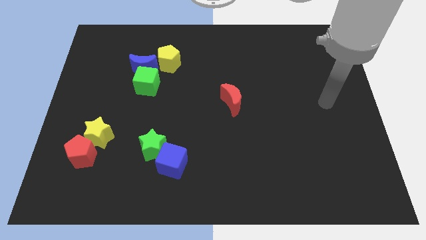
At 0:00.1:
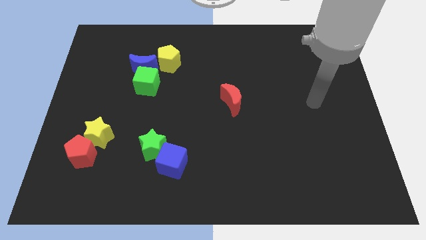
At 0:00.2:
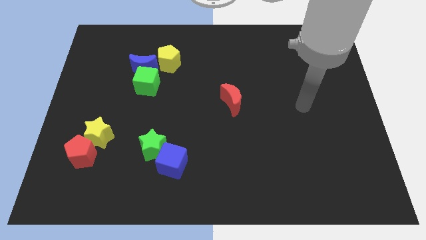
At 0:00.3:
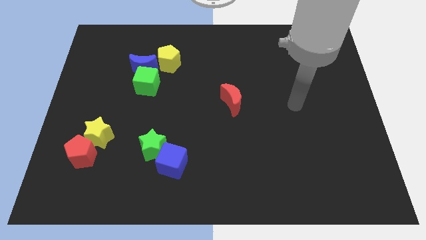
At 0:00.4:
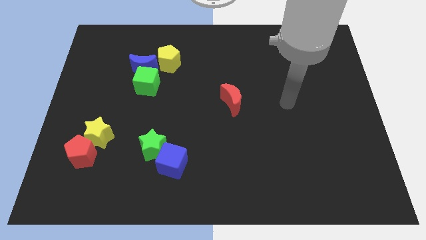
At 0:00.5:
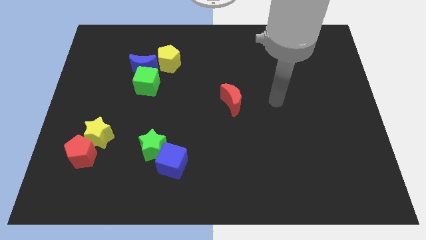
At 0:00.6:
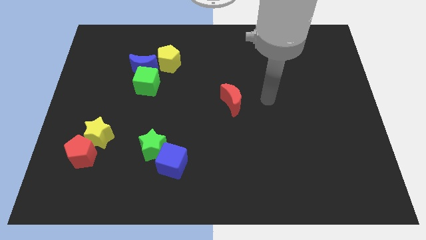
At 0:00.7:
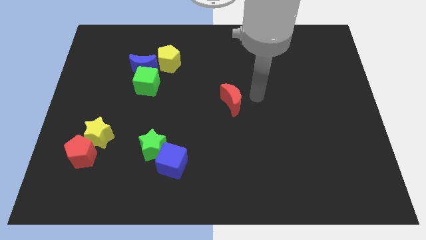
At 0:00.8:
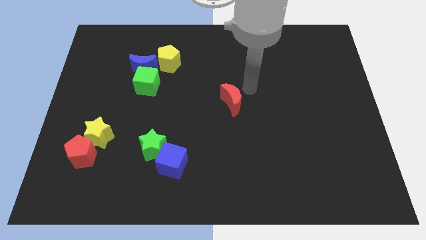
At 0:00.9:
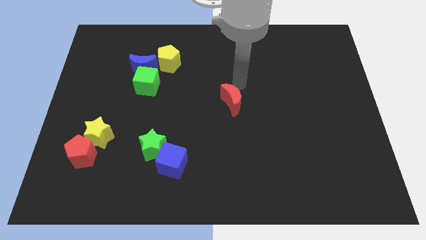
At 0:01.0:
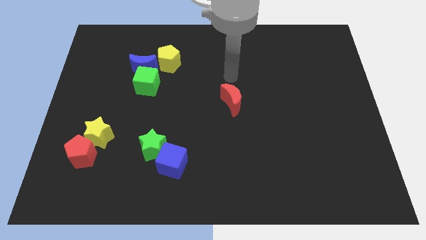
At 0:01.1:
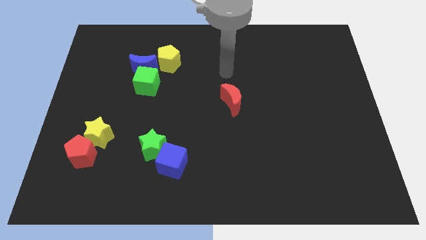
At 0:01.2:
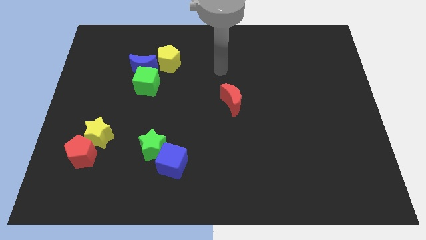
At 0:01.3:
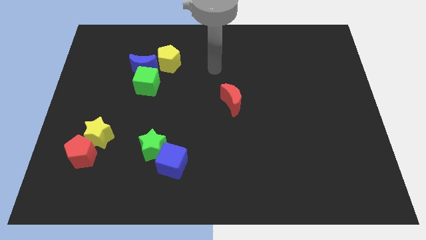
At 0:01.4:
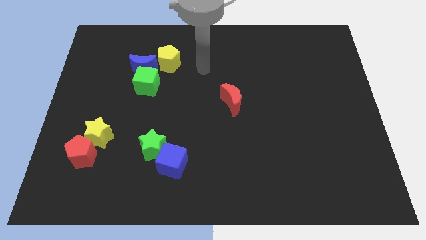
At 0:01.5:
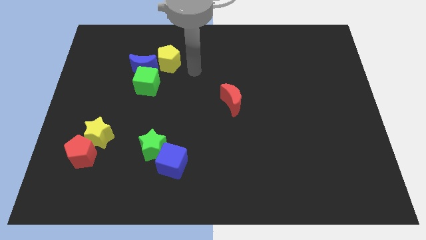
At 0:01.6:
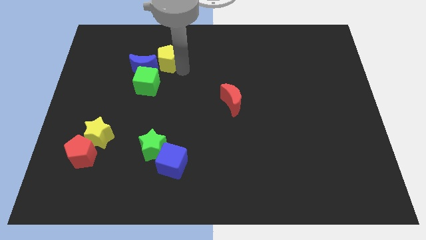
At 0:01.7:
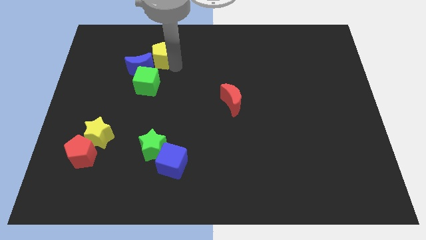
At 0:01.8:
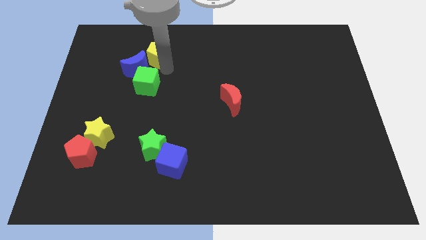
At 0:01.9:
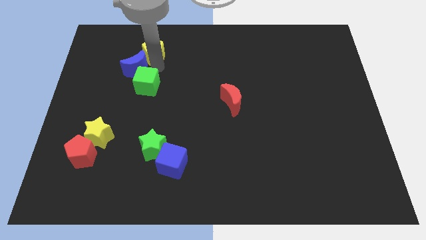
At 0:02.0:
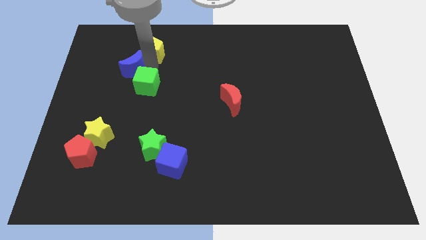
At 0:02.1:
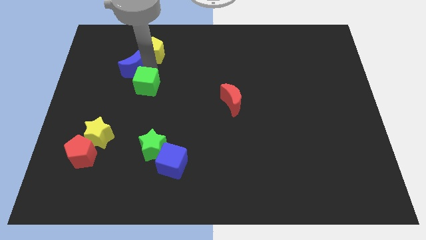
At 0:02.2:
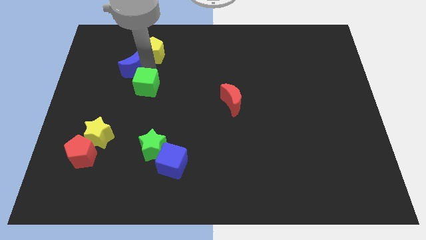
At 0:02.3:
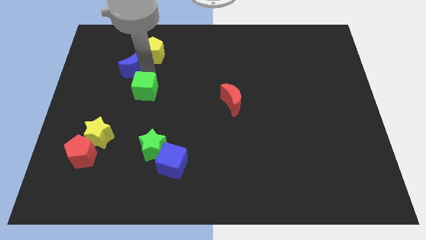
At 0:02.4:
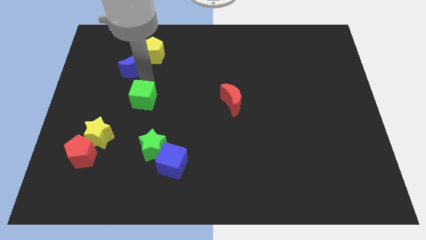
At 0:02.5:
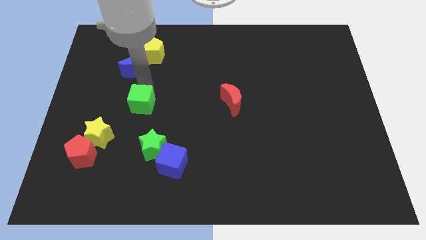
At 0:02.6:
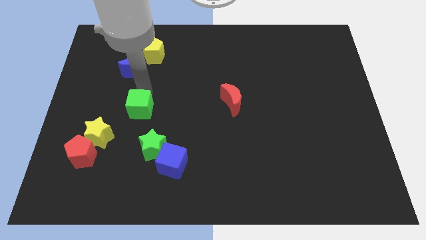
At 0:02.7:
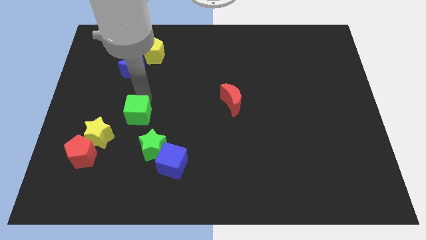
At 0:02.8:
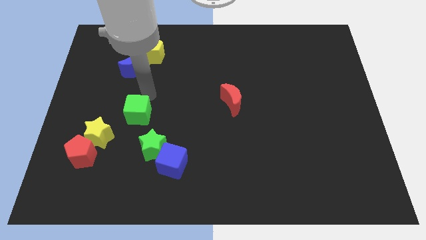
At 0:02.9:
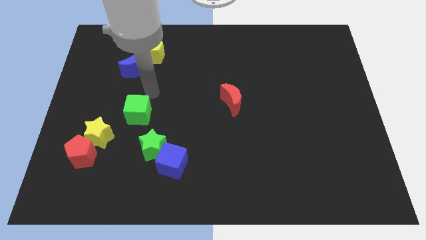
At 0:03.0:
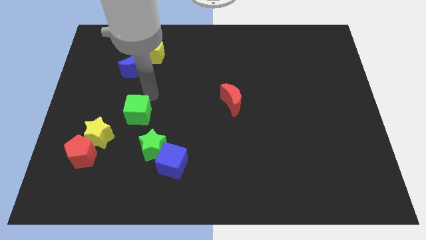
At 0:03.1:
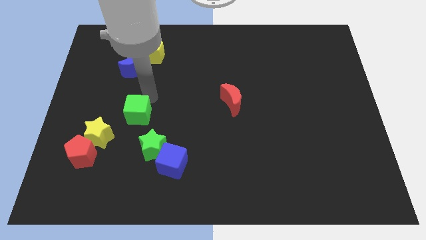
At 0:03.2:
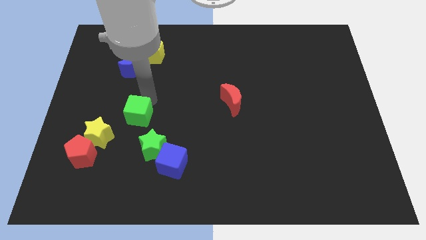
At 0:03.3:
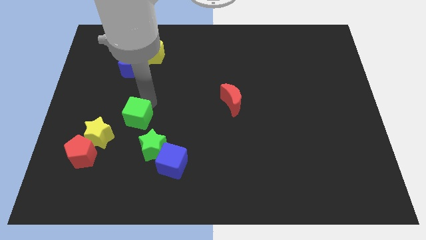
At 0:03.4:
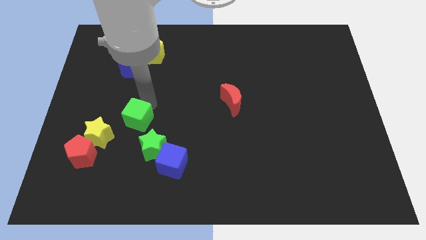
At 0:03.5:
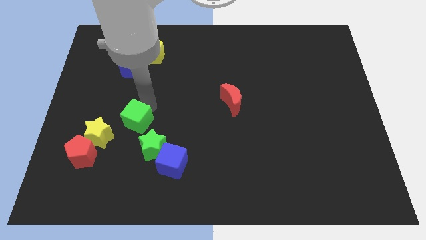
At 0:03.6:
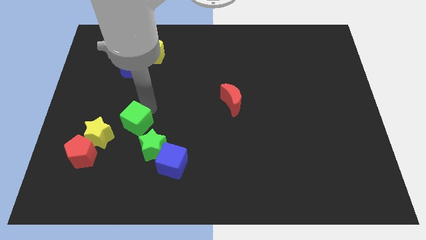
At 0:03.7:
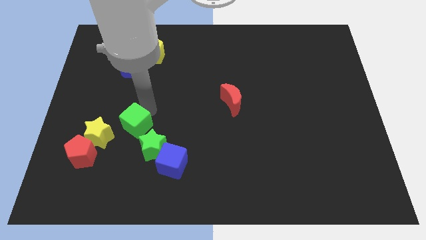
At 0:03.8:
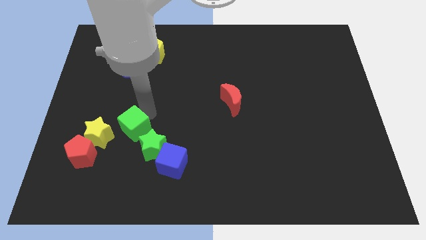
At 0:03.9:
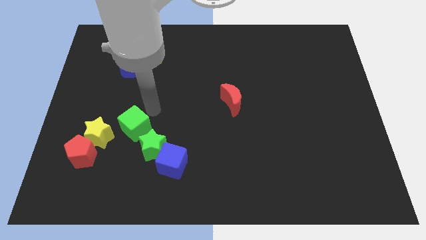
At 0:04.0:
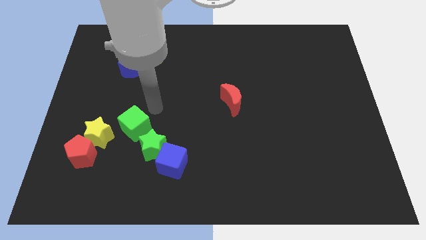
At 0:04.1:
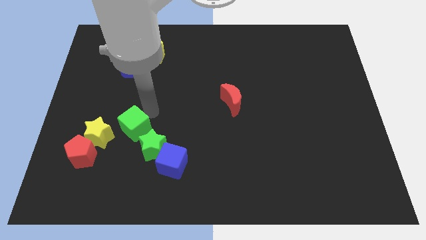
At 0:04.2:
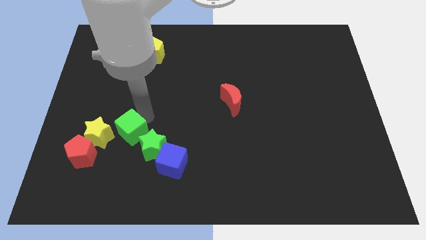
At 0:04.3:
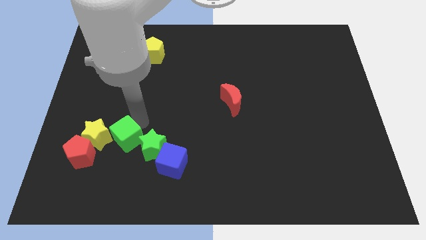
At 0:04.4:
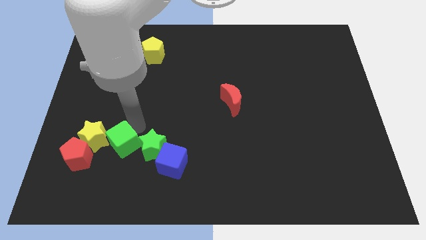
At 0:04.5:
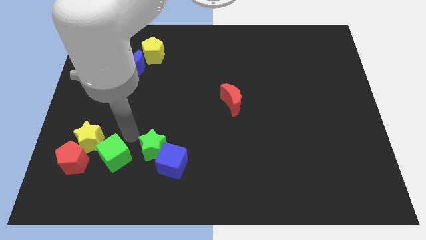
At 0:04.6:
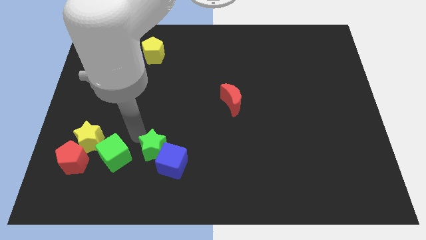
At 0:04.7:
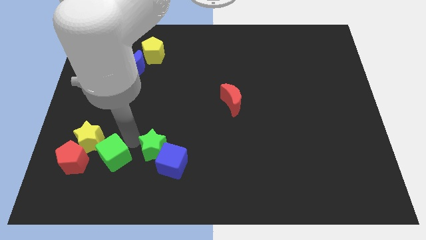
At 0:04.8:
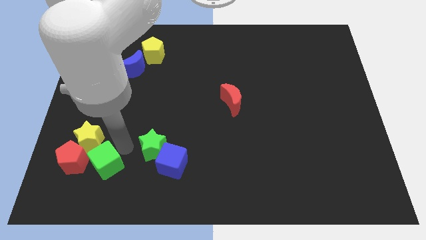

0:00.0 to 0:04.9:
move the green cube to the bottom side of the yellow star

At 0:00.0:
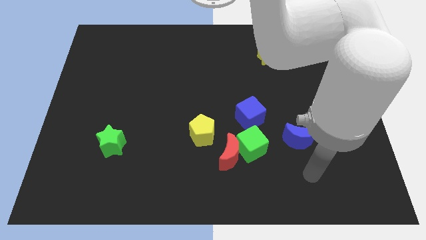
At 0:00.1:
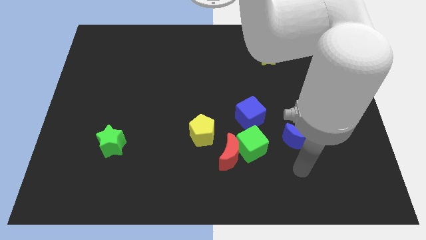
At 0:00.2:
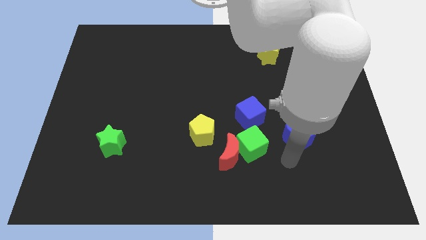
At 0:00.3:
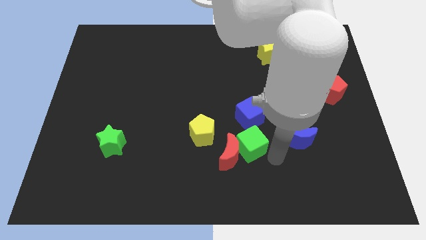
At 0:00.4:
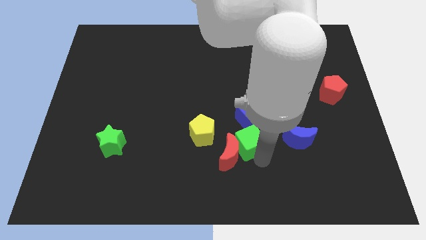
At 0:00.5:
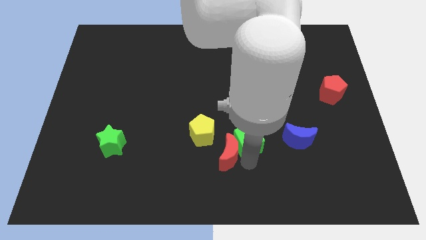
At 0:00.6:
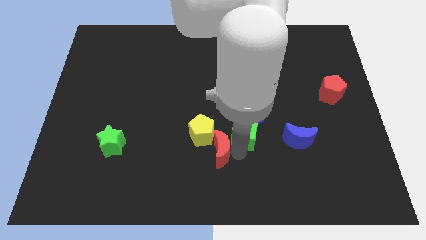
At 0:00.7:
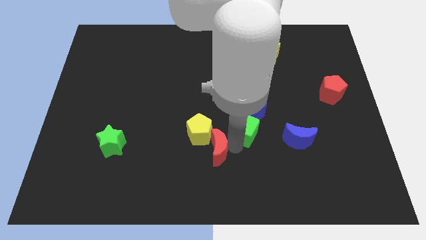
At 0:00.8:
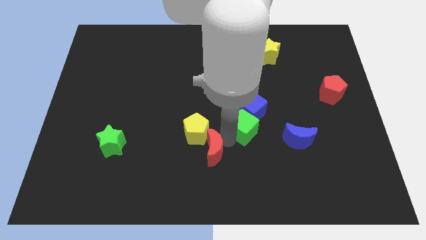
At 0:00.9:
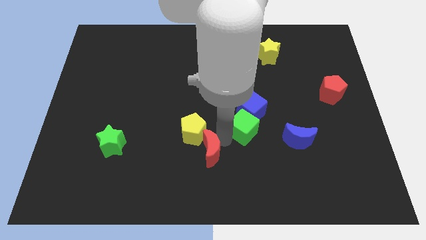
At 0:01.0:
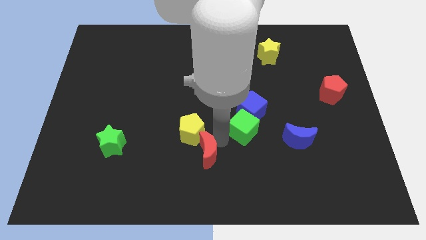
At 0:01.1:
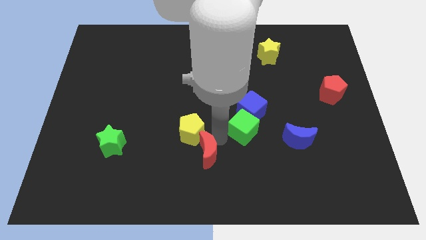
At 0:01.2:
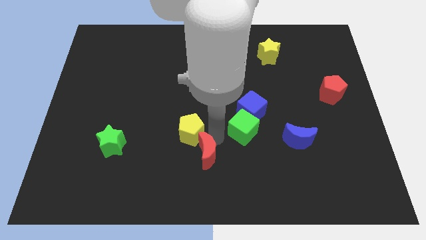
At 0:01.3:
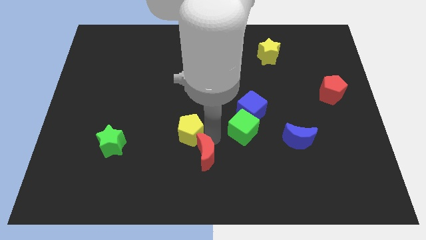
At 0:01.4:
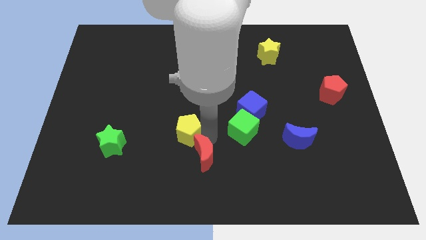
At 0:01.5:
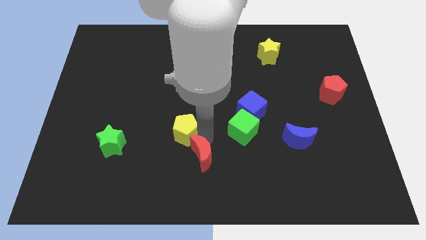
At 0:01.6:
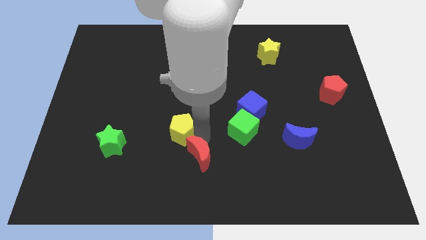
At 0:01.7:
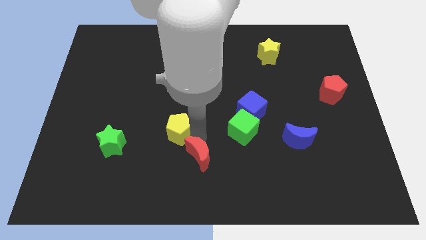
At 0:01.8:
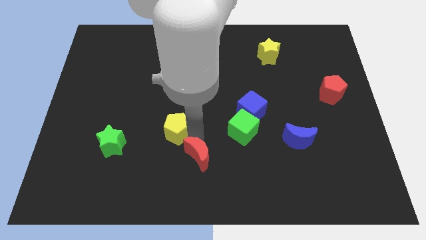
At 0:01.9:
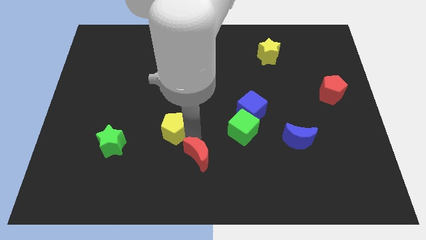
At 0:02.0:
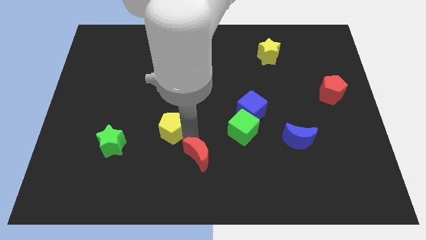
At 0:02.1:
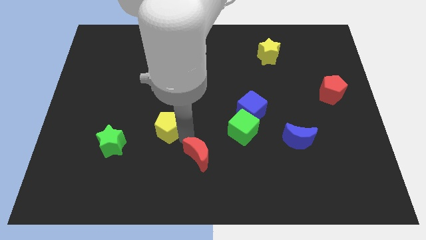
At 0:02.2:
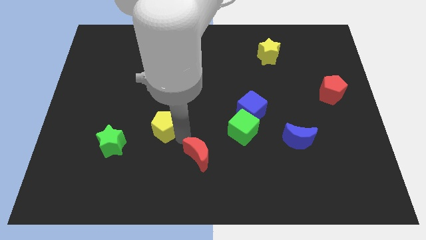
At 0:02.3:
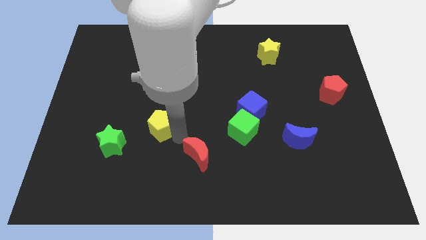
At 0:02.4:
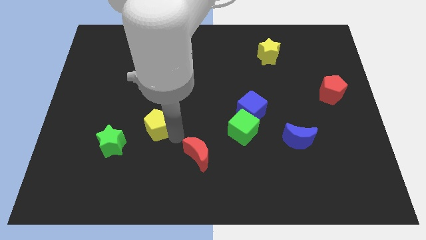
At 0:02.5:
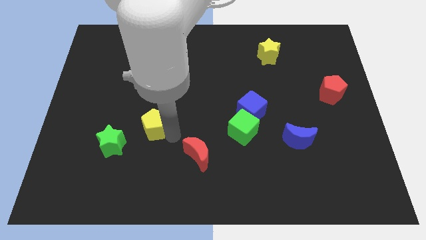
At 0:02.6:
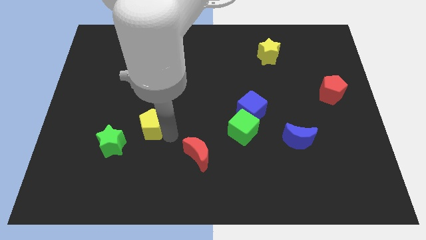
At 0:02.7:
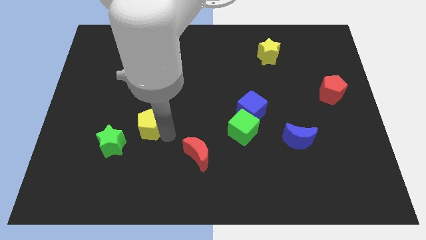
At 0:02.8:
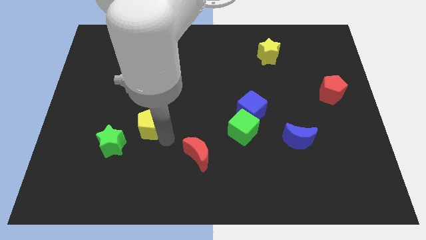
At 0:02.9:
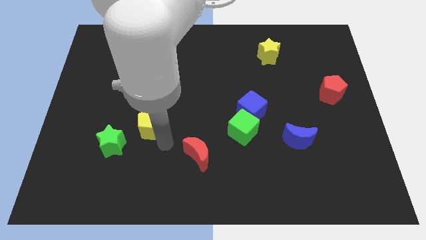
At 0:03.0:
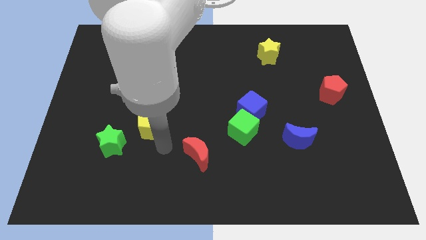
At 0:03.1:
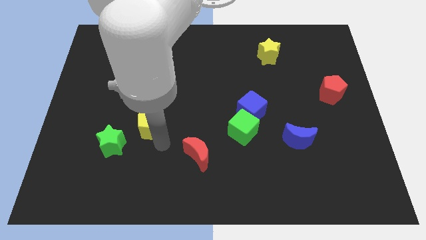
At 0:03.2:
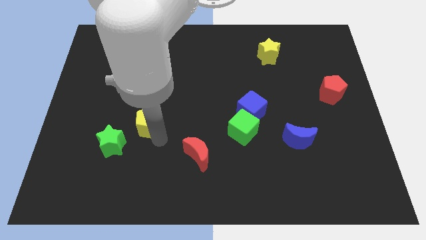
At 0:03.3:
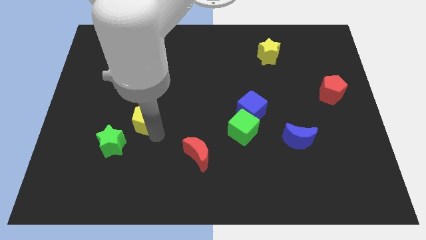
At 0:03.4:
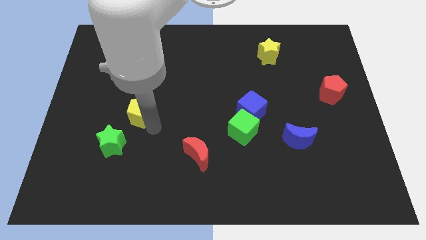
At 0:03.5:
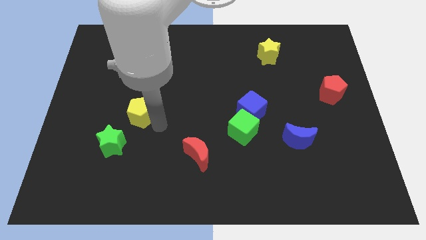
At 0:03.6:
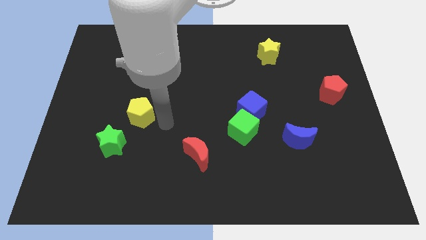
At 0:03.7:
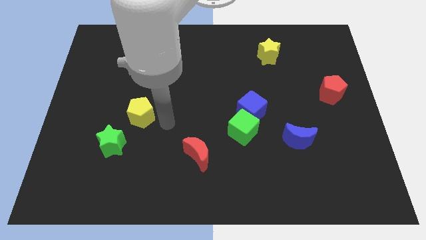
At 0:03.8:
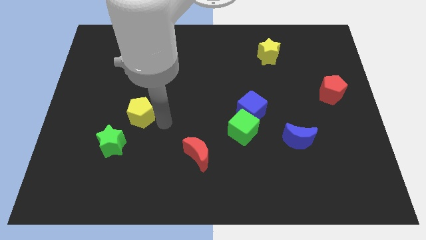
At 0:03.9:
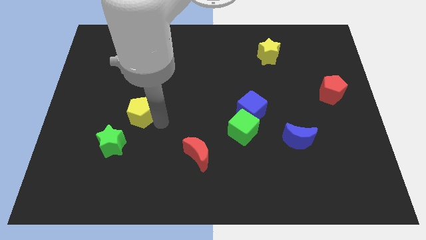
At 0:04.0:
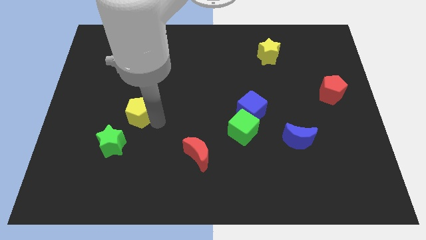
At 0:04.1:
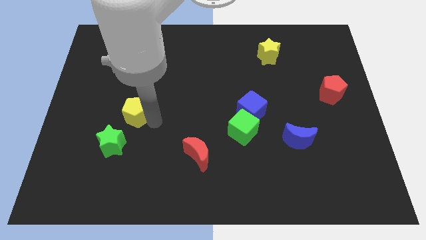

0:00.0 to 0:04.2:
put the yellow pentagon to the top side of the green star
